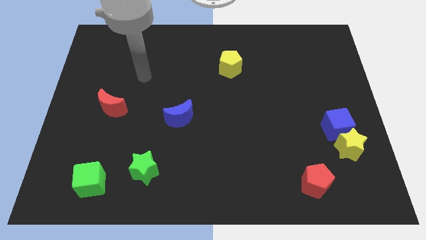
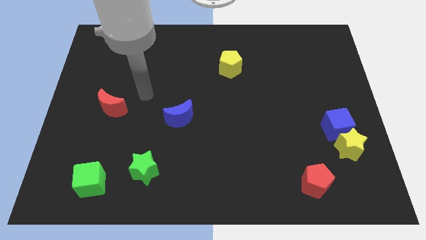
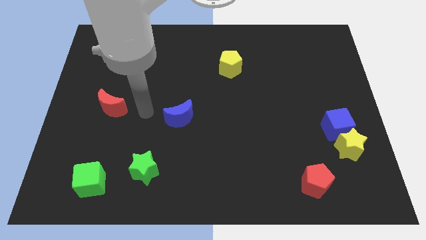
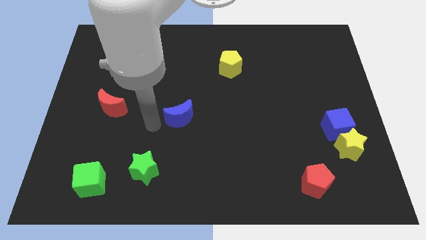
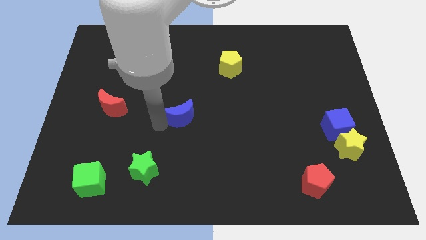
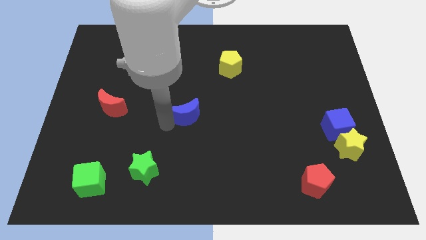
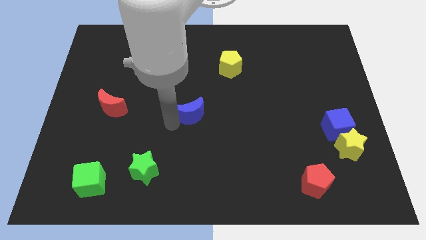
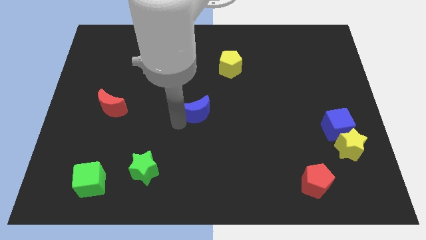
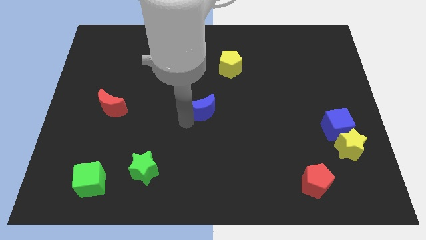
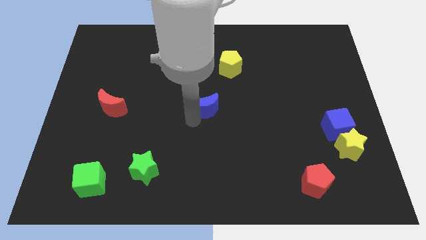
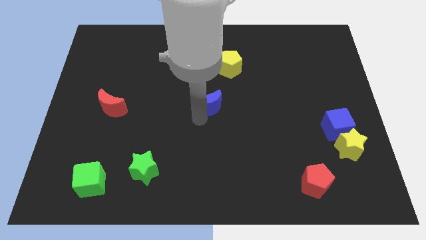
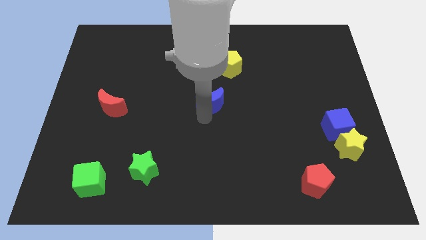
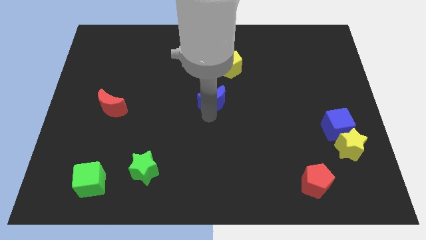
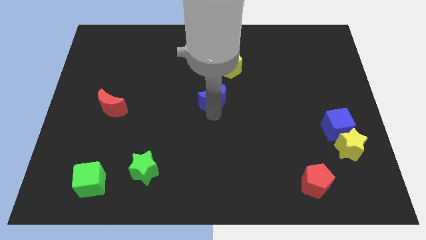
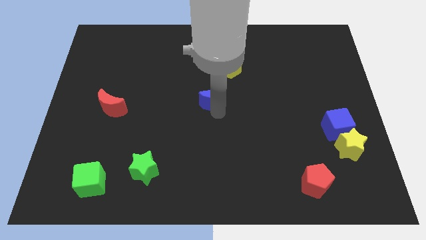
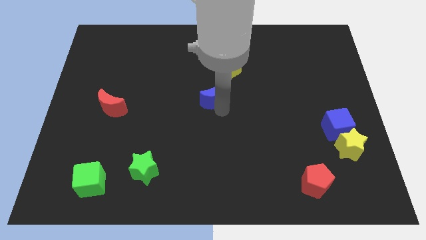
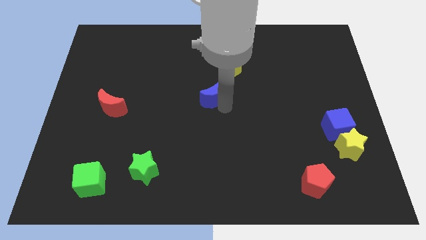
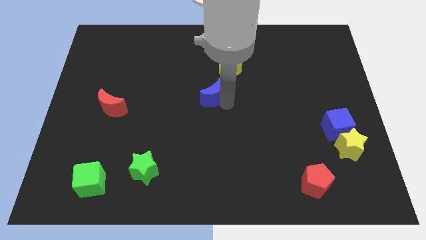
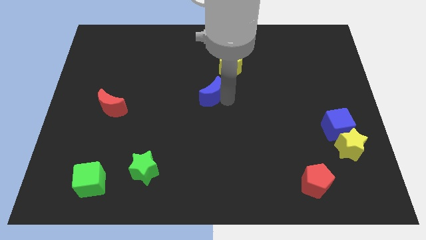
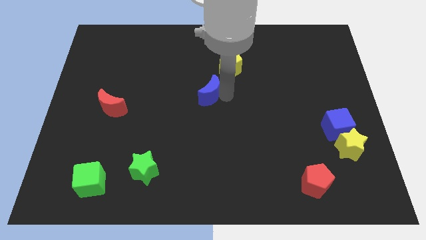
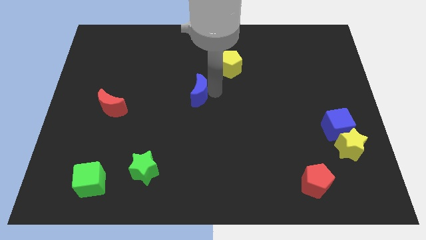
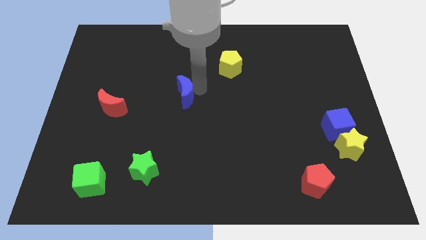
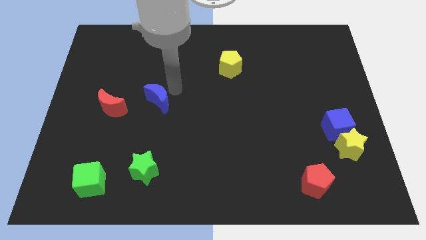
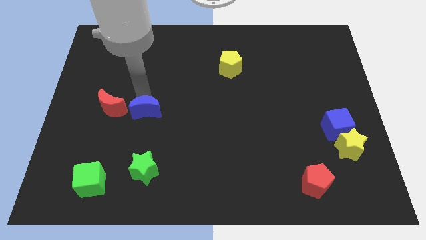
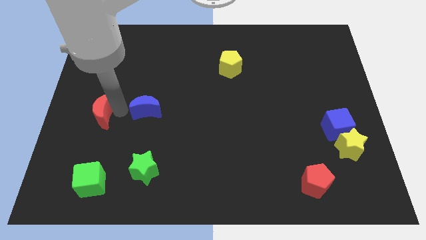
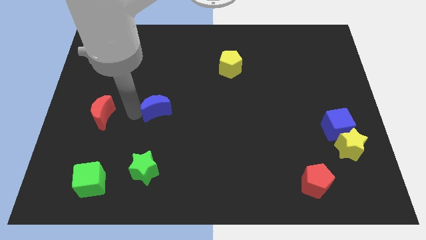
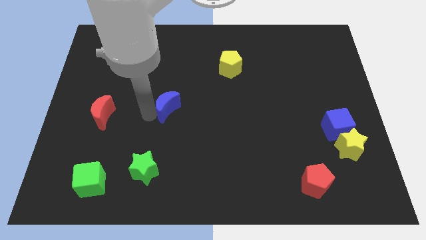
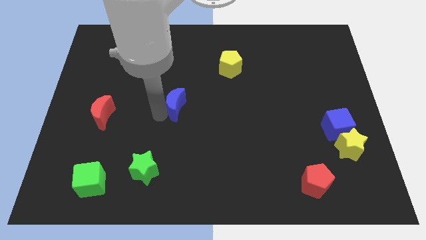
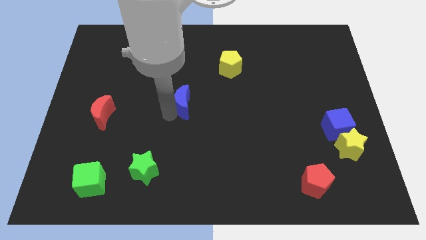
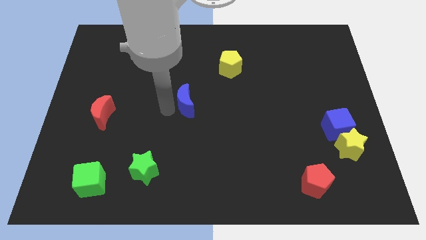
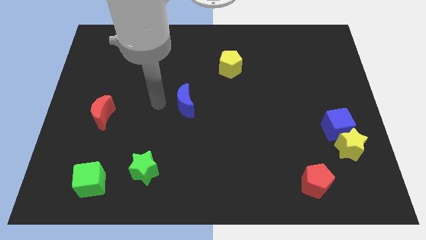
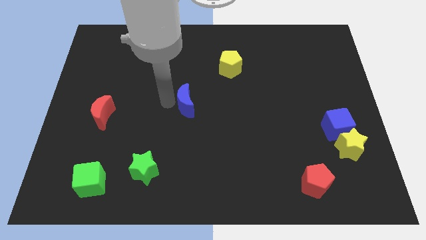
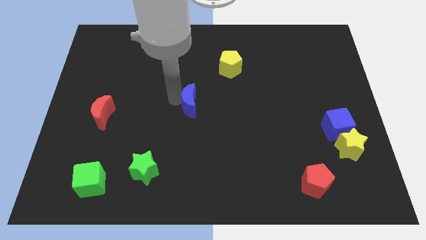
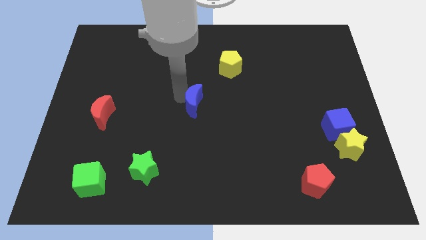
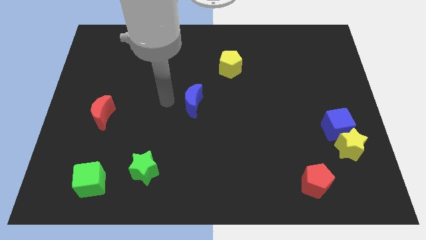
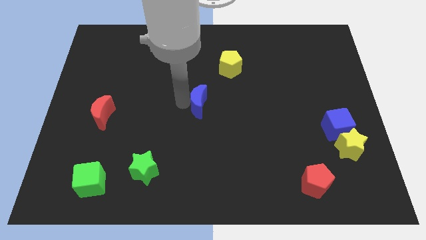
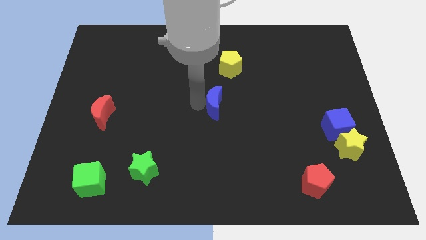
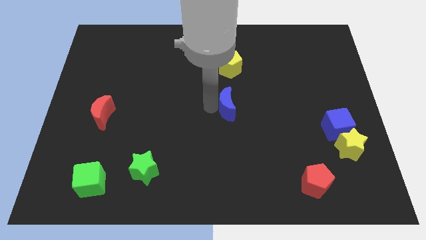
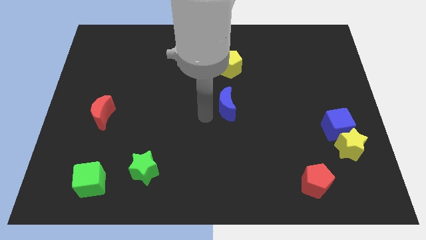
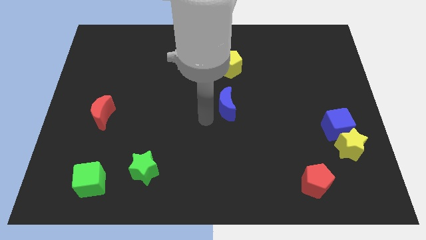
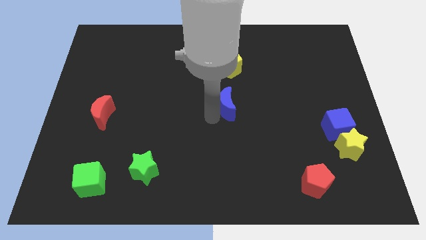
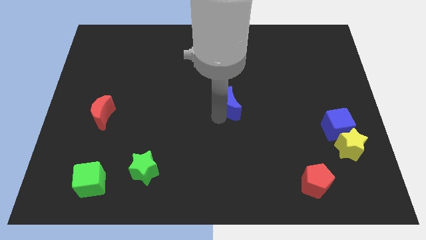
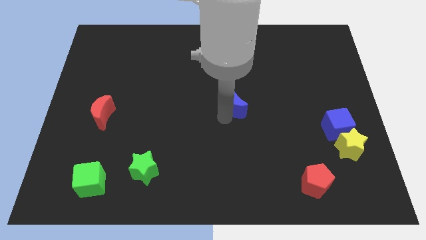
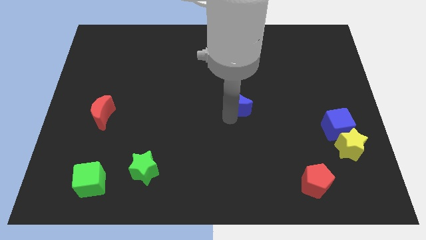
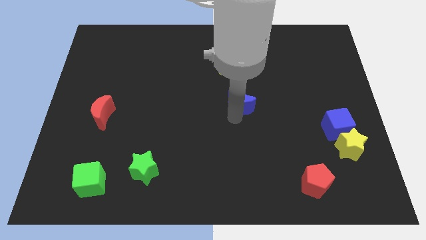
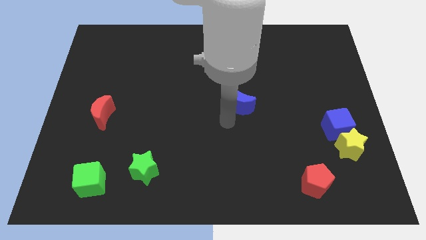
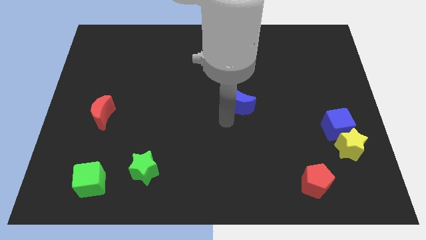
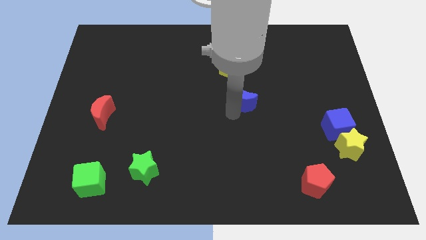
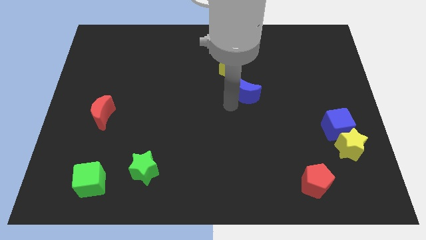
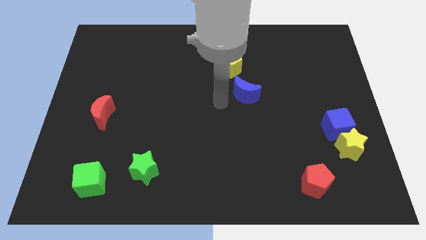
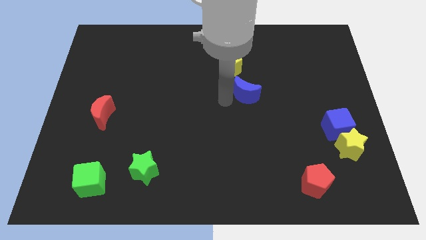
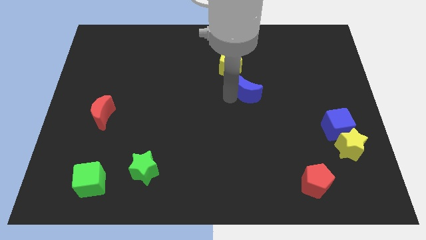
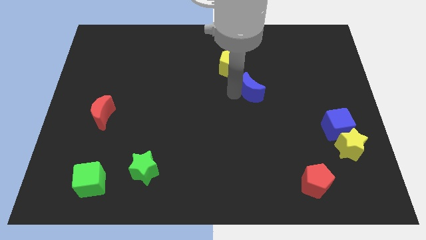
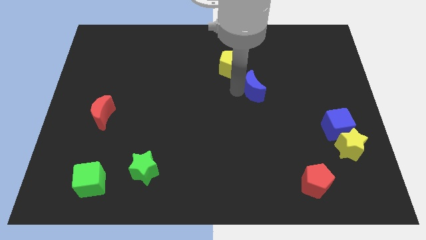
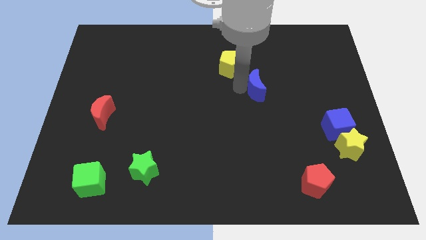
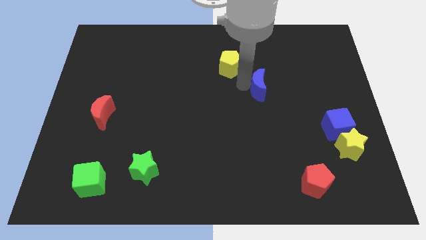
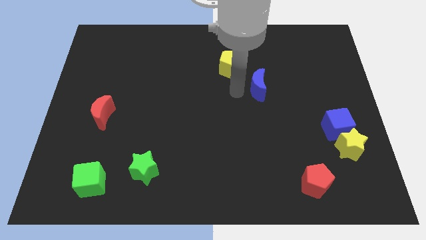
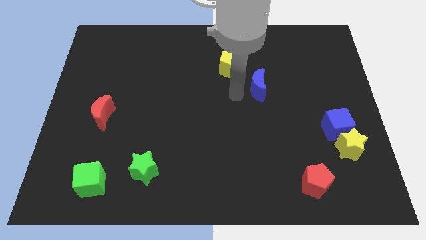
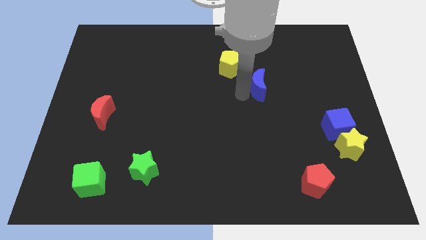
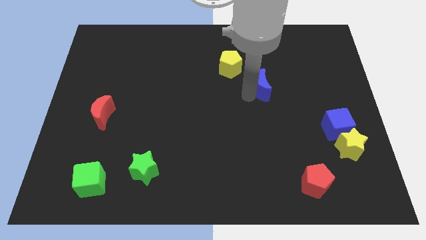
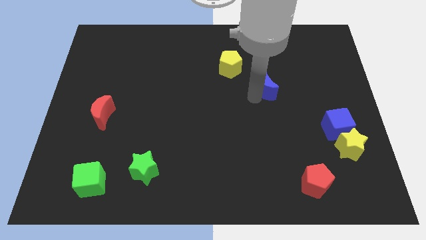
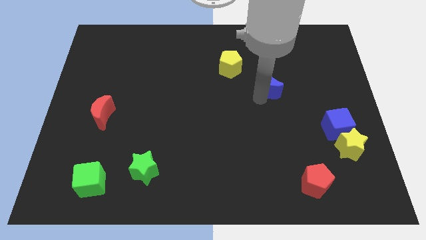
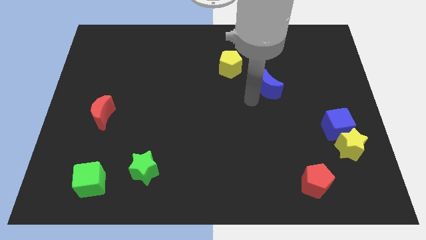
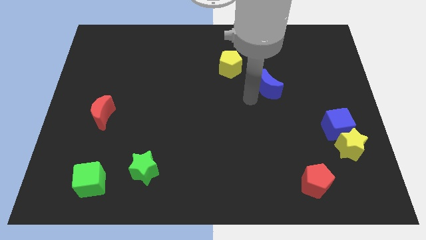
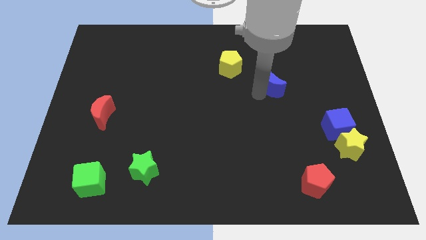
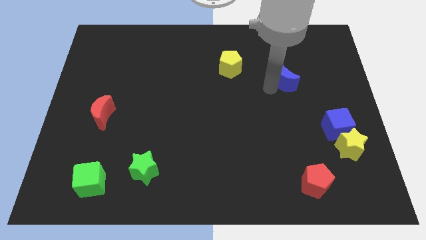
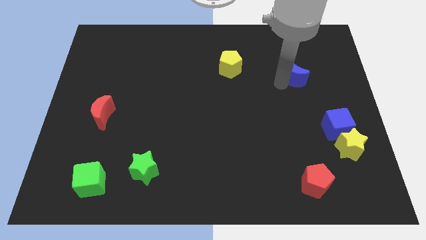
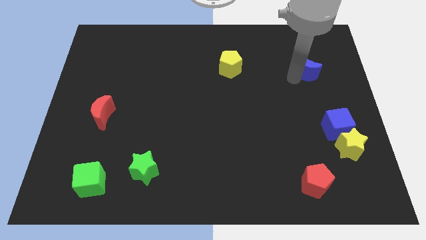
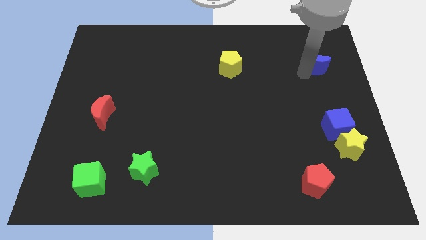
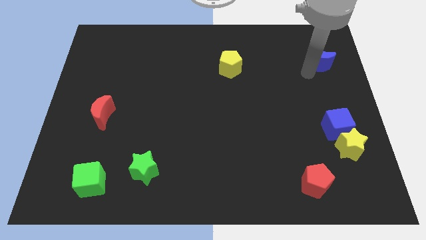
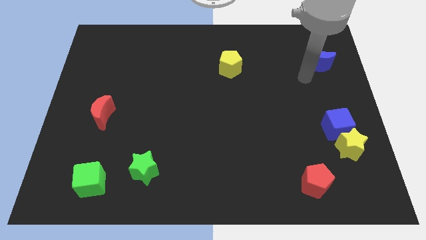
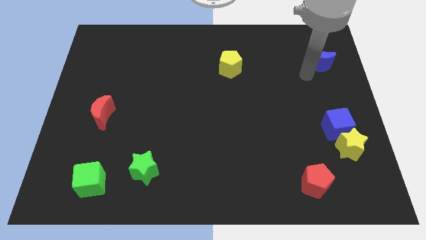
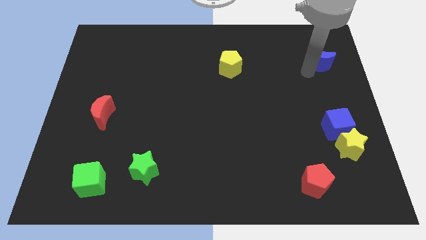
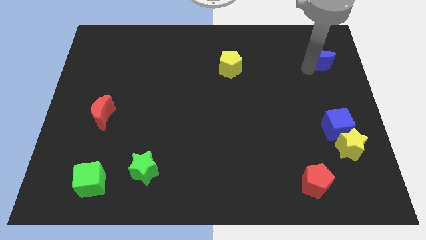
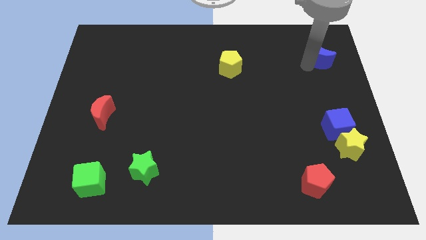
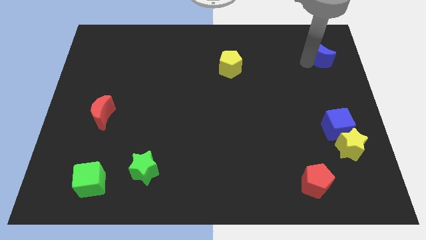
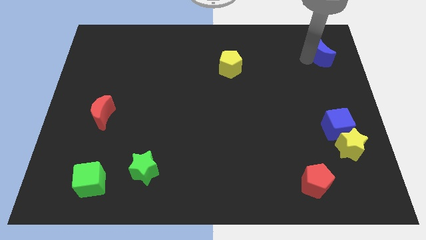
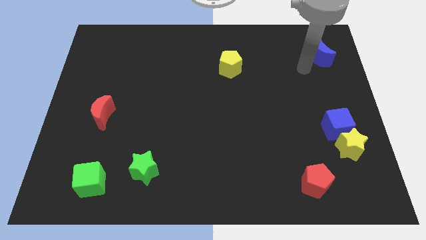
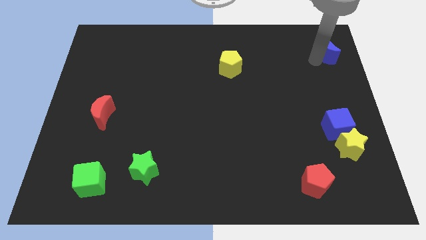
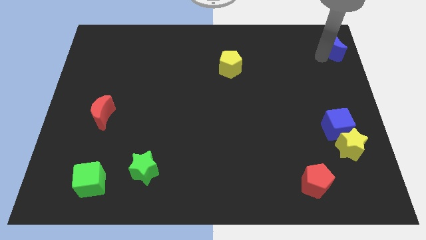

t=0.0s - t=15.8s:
slide the blue moon to the top right
